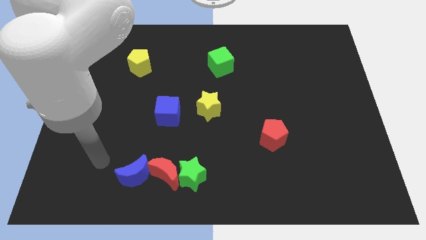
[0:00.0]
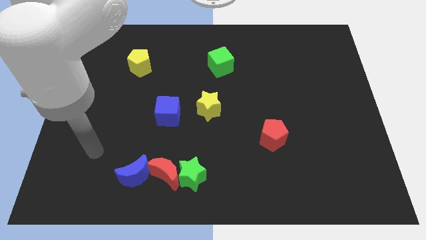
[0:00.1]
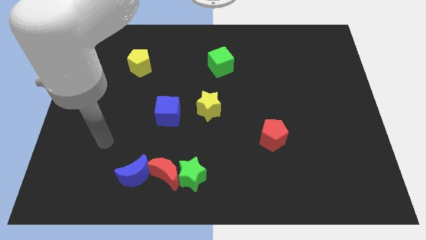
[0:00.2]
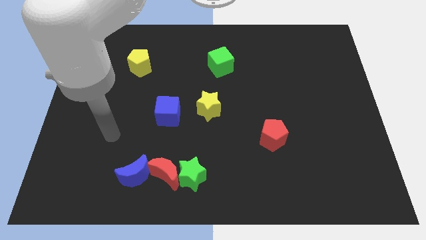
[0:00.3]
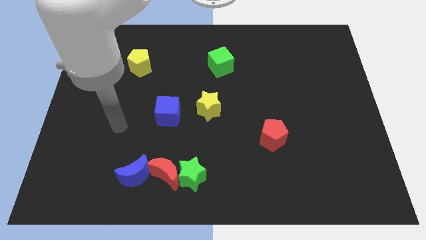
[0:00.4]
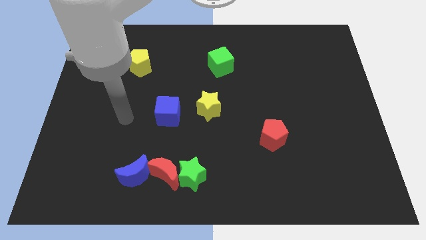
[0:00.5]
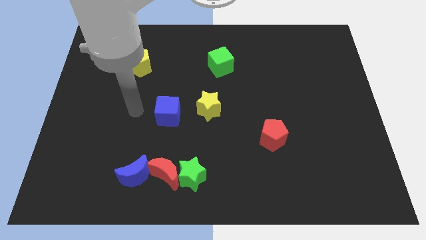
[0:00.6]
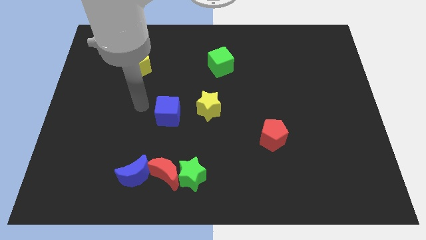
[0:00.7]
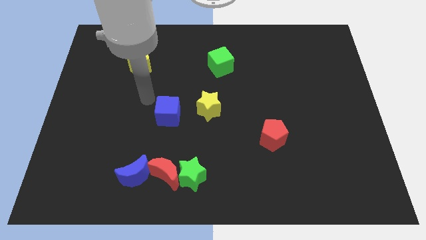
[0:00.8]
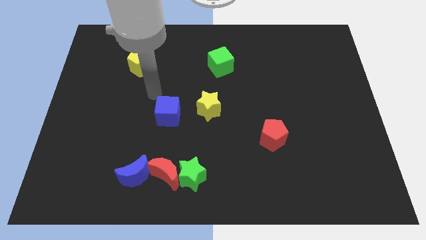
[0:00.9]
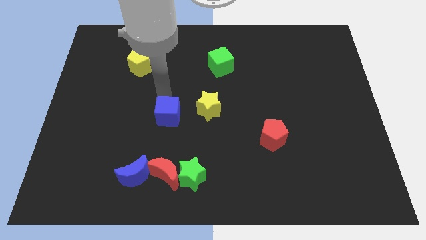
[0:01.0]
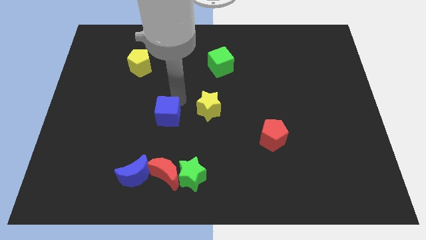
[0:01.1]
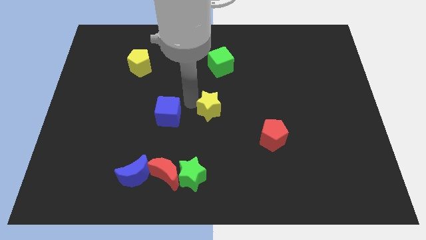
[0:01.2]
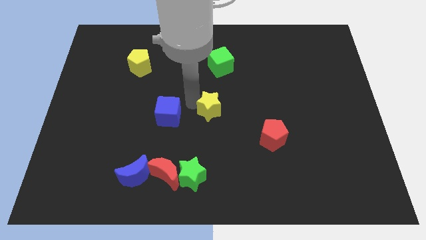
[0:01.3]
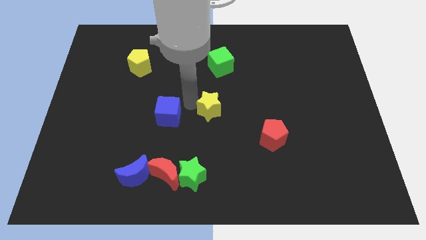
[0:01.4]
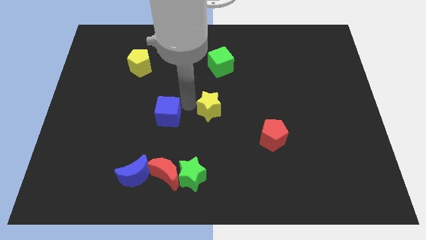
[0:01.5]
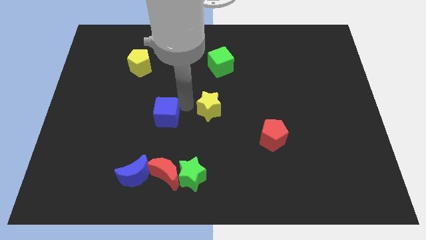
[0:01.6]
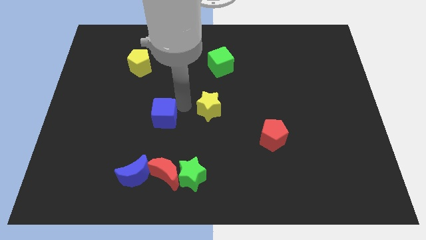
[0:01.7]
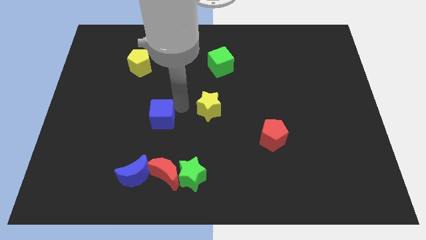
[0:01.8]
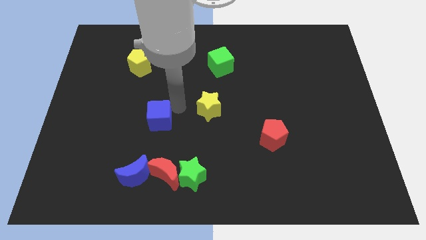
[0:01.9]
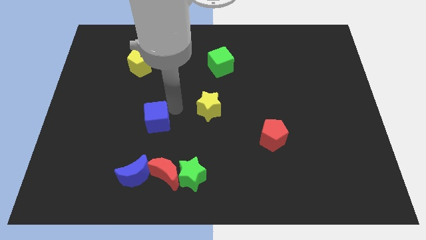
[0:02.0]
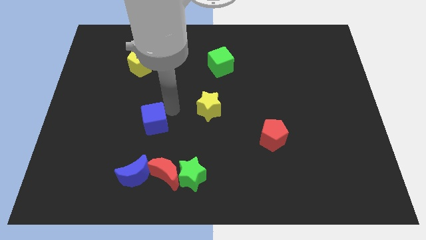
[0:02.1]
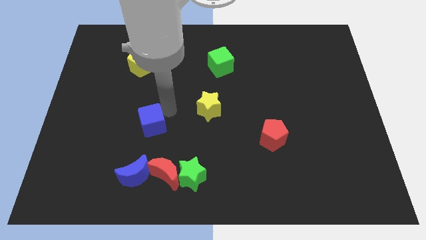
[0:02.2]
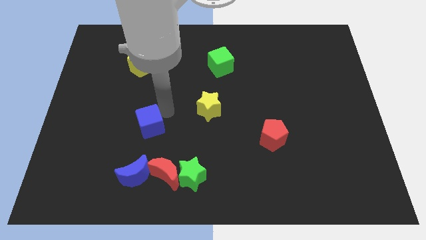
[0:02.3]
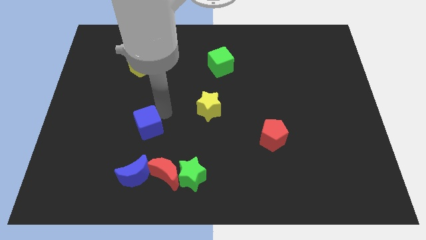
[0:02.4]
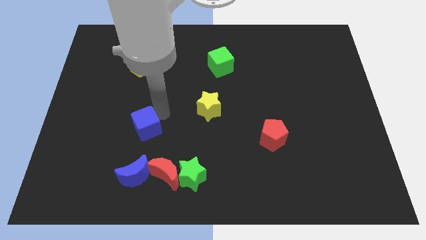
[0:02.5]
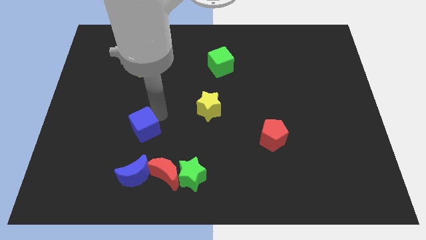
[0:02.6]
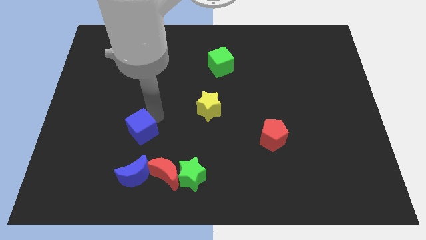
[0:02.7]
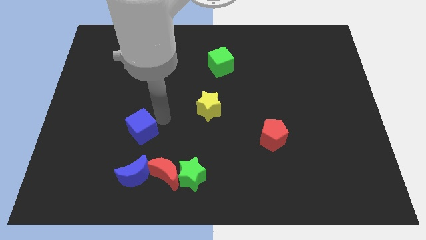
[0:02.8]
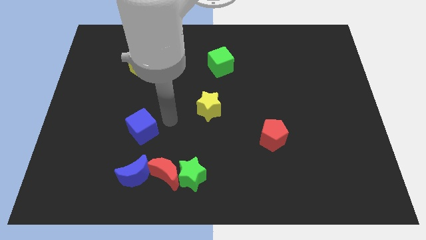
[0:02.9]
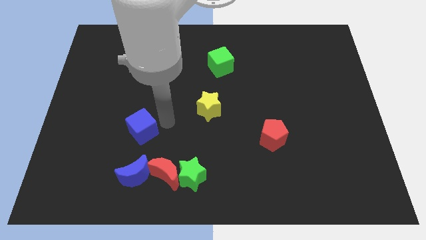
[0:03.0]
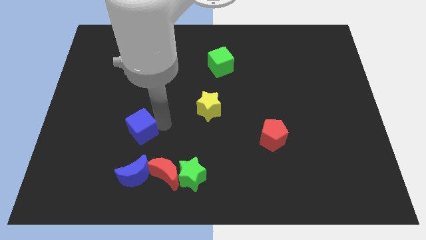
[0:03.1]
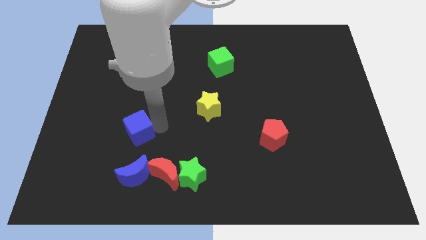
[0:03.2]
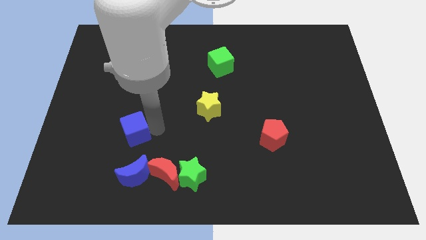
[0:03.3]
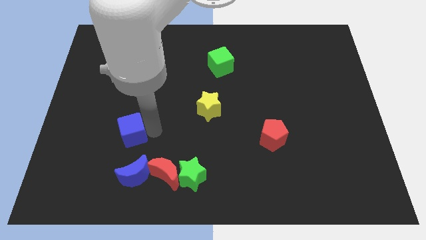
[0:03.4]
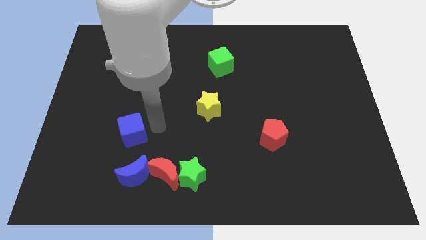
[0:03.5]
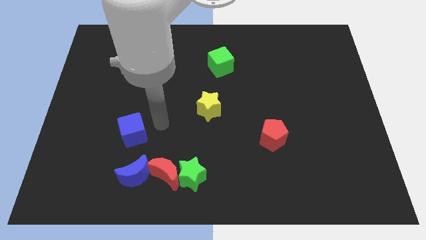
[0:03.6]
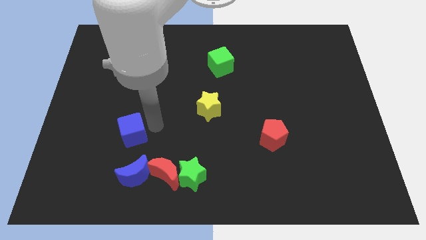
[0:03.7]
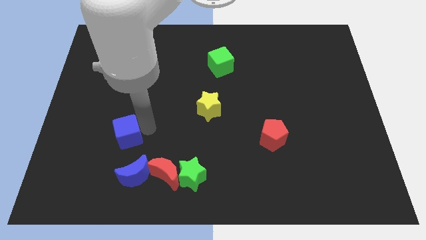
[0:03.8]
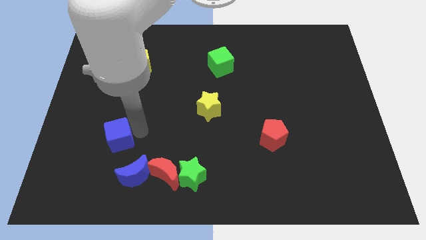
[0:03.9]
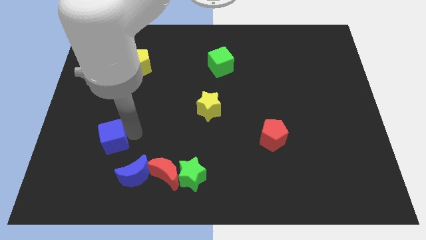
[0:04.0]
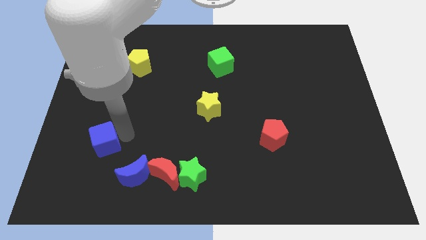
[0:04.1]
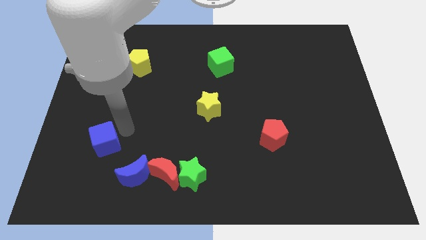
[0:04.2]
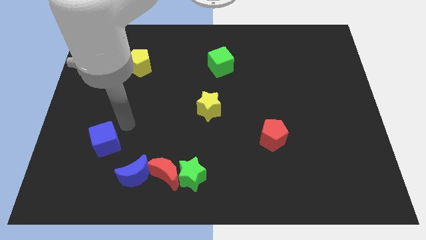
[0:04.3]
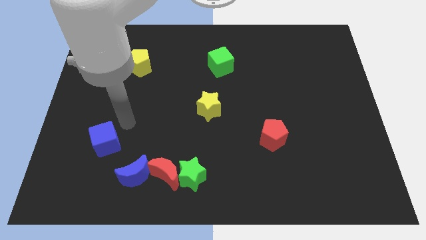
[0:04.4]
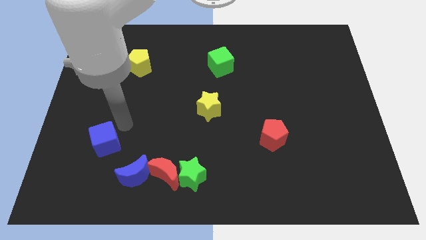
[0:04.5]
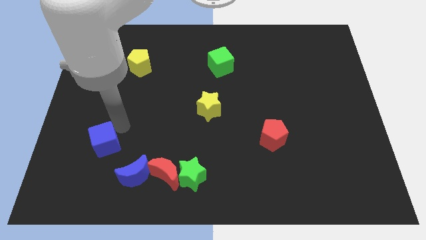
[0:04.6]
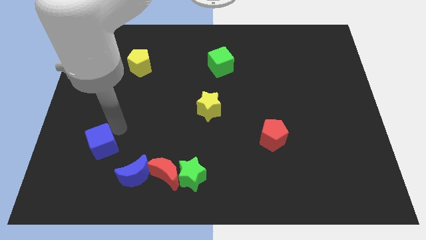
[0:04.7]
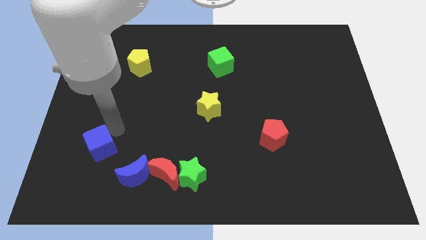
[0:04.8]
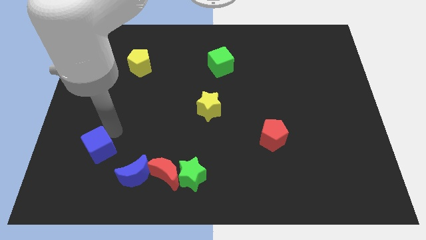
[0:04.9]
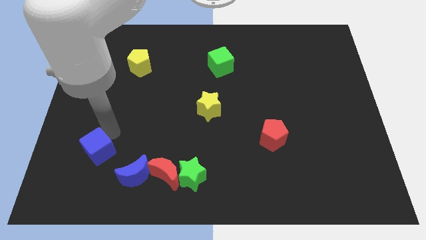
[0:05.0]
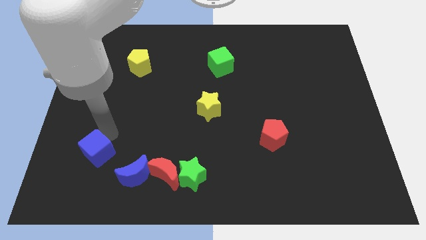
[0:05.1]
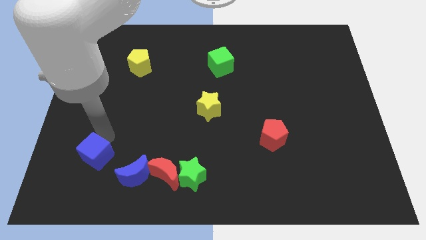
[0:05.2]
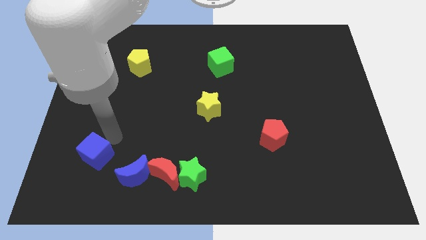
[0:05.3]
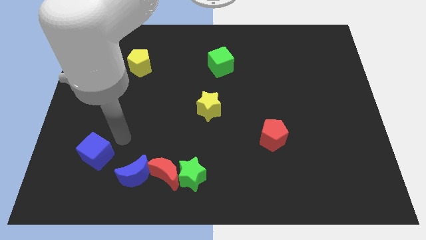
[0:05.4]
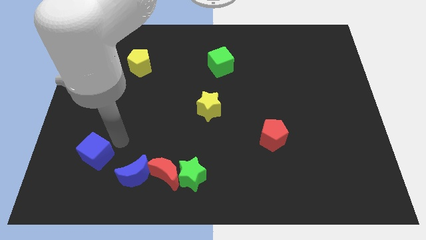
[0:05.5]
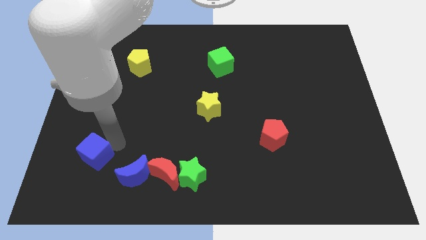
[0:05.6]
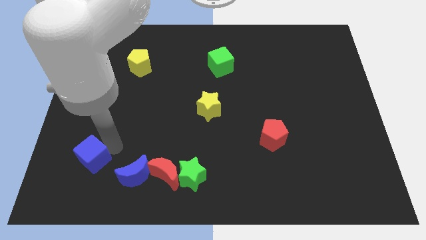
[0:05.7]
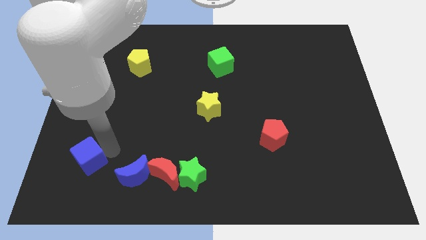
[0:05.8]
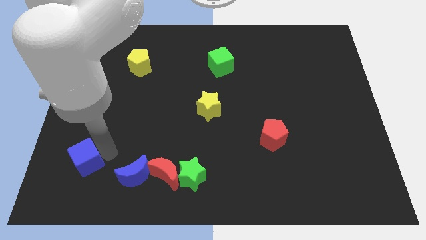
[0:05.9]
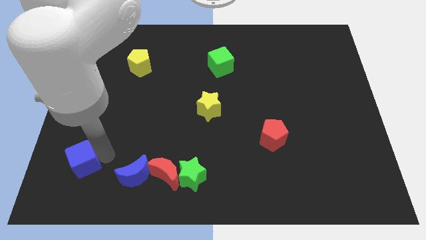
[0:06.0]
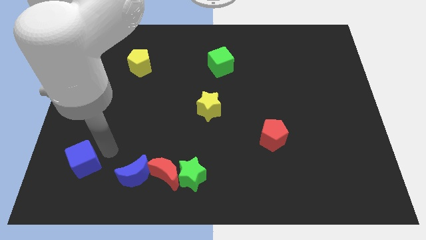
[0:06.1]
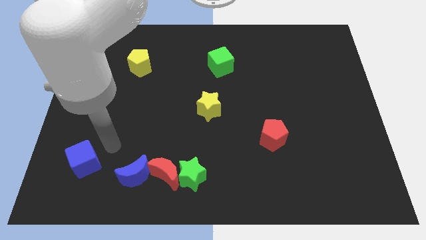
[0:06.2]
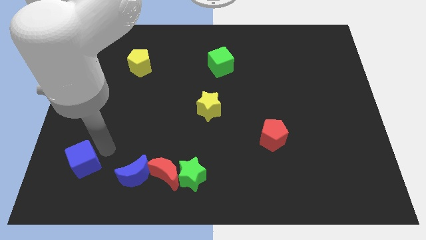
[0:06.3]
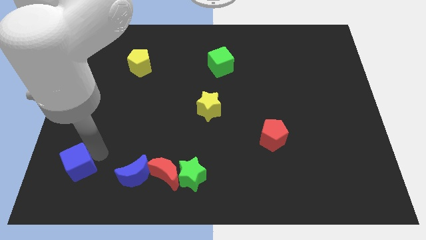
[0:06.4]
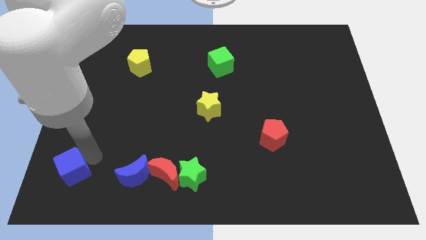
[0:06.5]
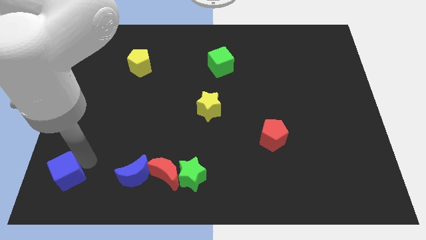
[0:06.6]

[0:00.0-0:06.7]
put the blue cube to the bottom left
